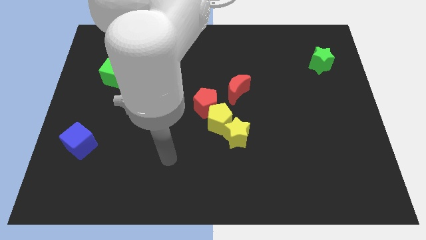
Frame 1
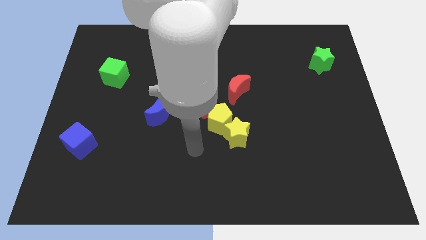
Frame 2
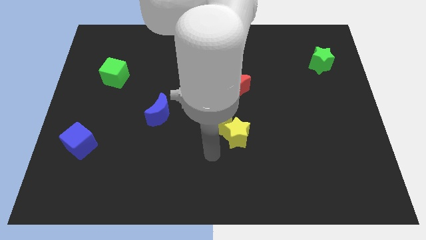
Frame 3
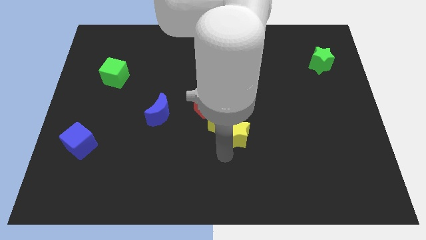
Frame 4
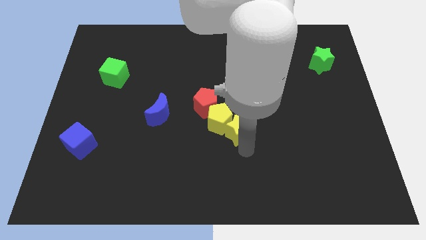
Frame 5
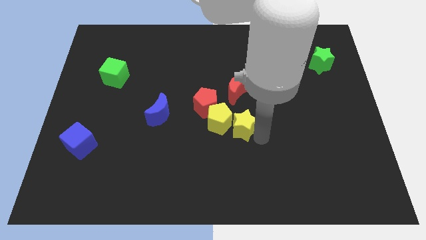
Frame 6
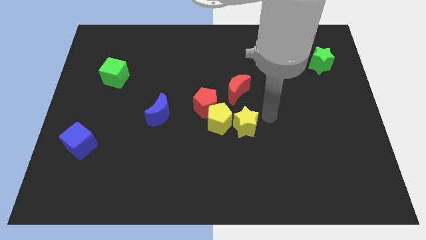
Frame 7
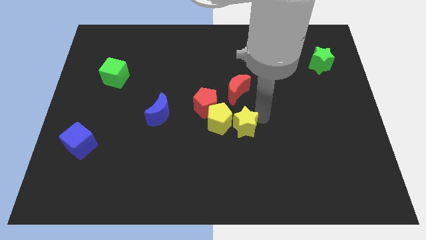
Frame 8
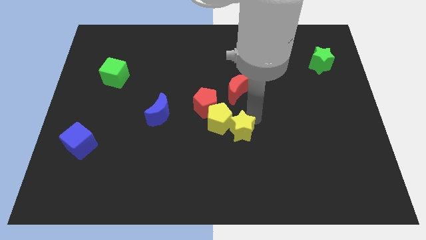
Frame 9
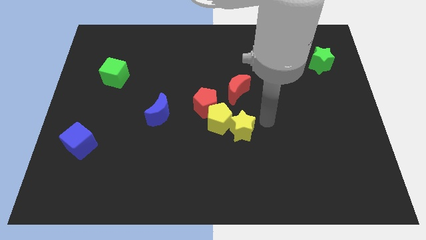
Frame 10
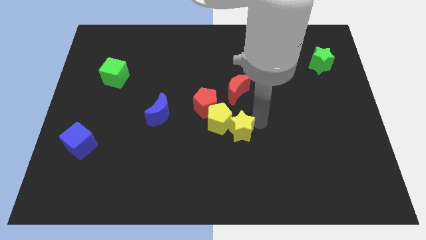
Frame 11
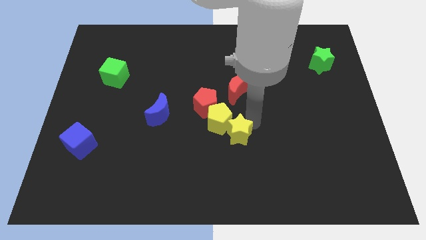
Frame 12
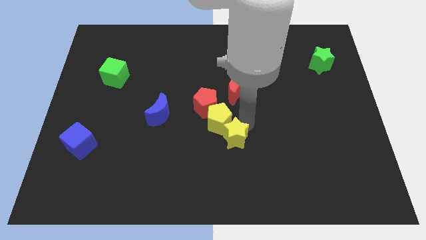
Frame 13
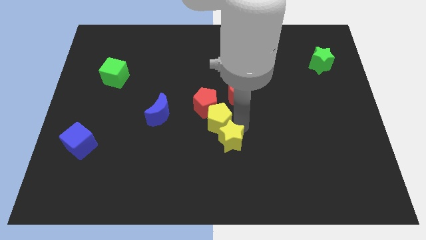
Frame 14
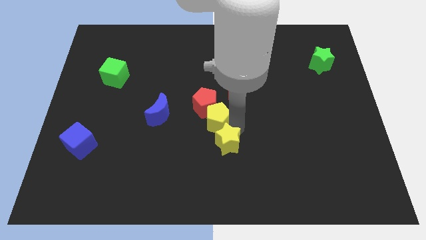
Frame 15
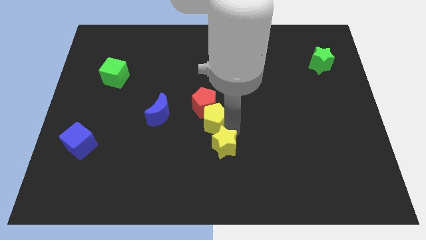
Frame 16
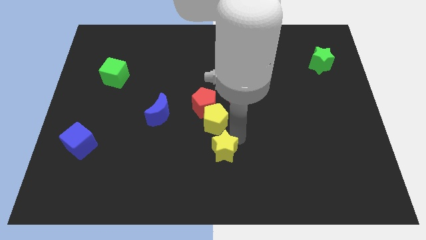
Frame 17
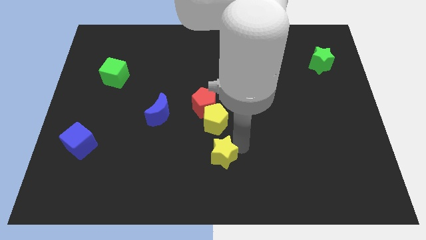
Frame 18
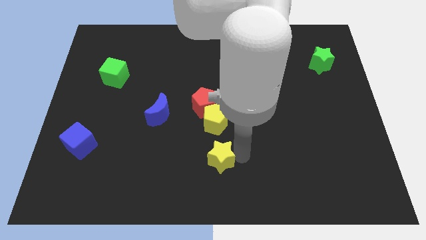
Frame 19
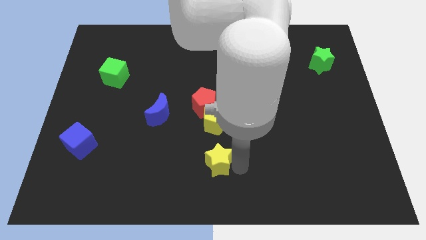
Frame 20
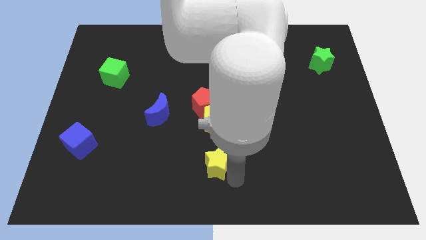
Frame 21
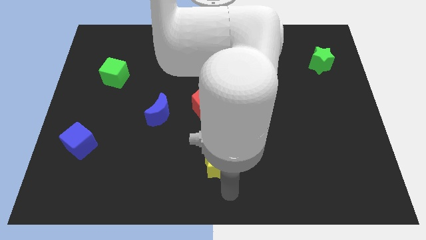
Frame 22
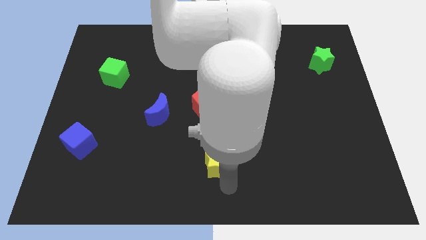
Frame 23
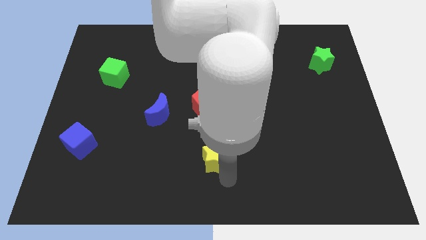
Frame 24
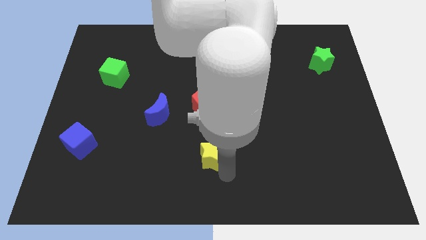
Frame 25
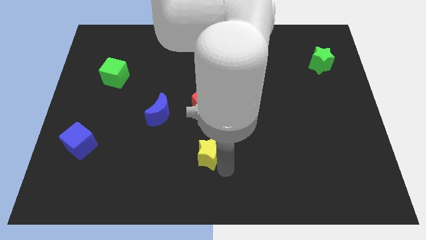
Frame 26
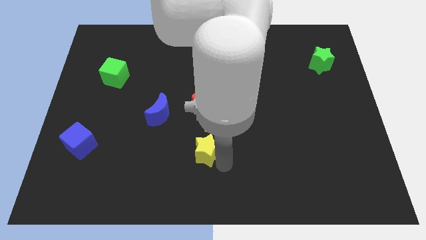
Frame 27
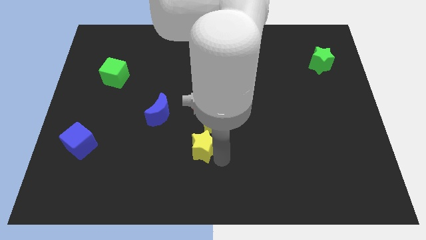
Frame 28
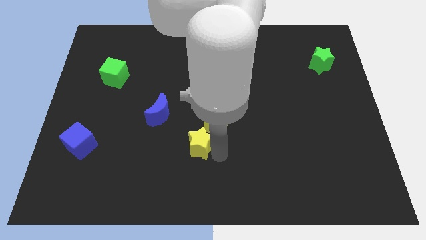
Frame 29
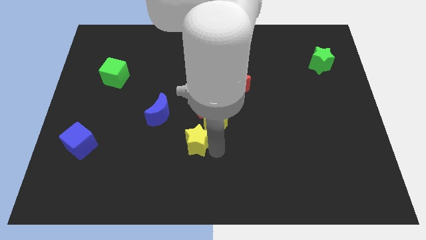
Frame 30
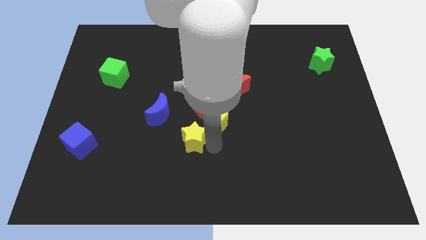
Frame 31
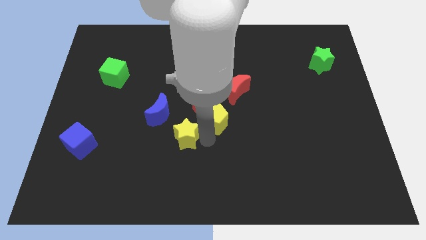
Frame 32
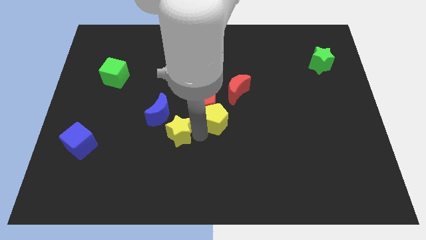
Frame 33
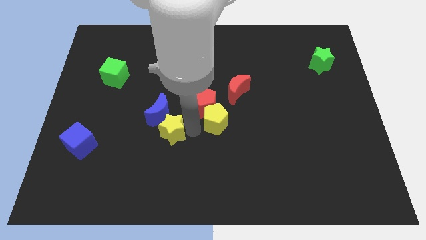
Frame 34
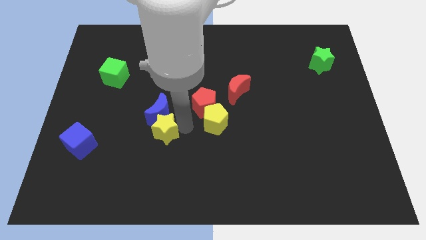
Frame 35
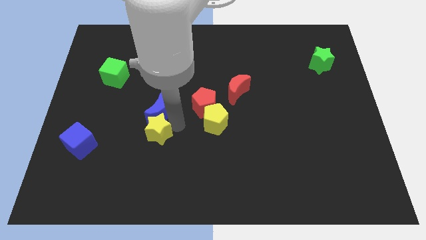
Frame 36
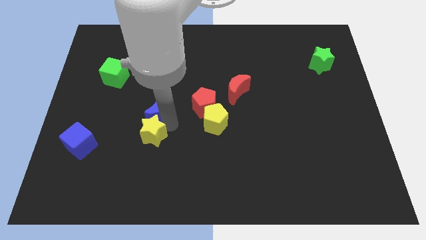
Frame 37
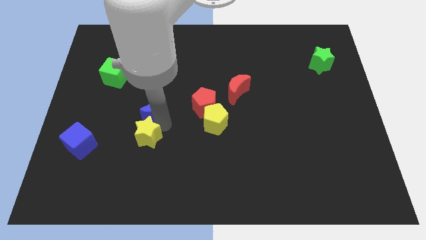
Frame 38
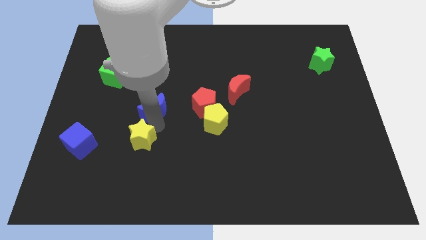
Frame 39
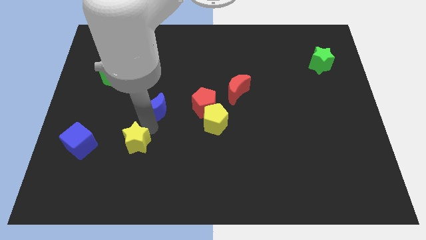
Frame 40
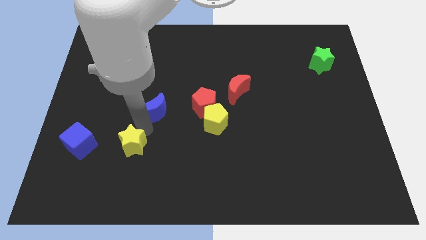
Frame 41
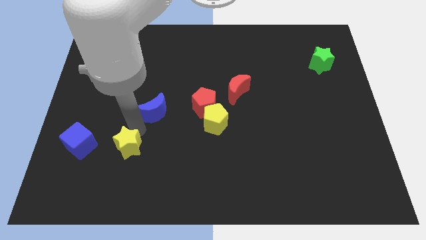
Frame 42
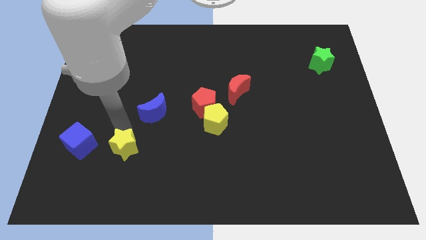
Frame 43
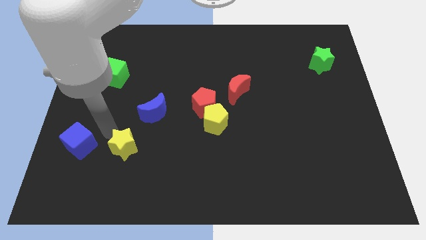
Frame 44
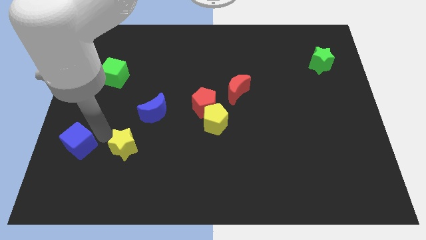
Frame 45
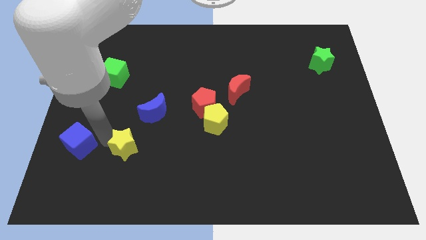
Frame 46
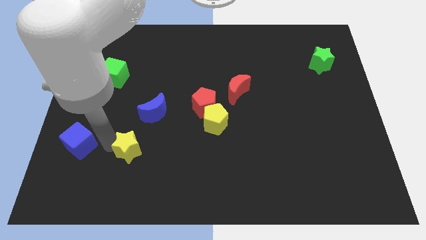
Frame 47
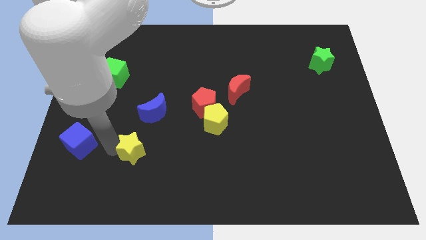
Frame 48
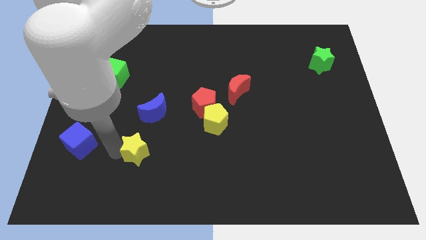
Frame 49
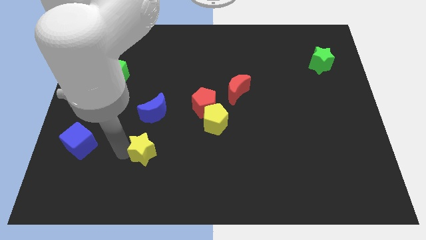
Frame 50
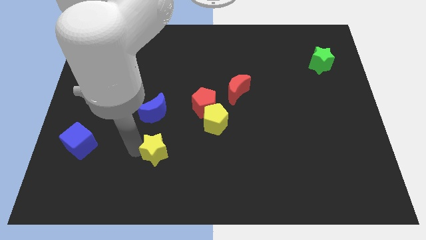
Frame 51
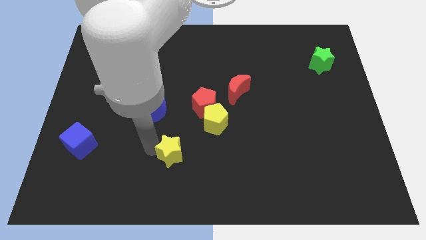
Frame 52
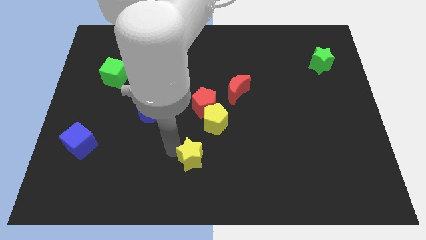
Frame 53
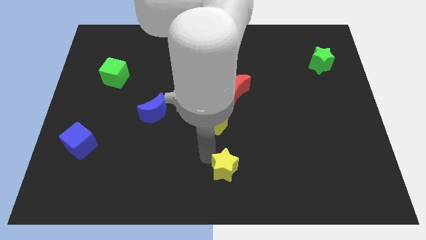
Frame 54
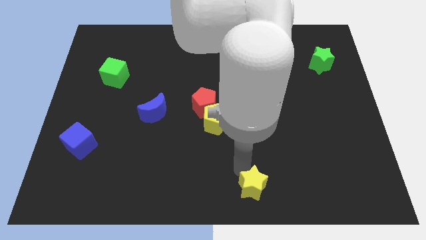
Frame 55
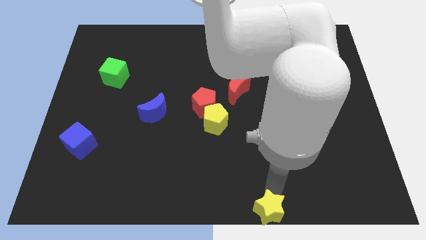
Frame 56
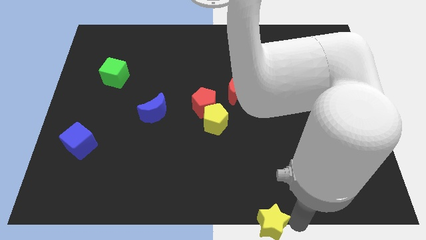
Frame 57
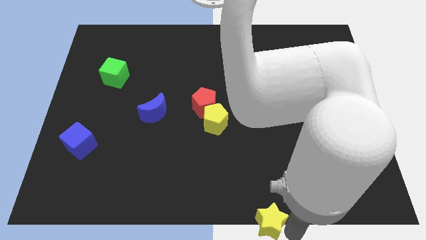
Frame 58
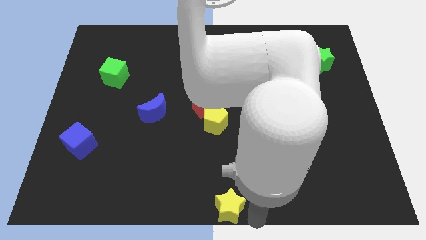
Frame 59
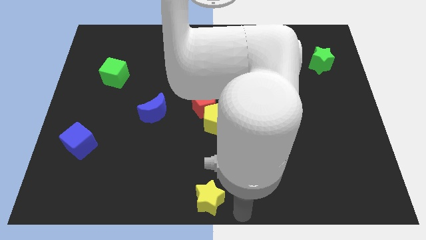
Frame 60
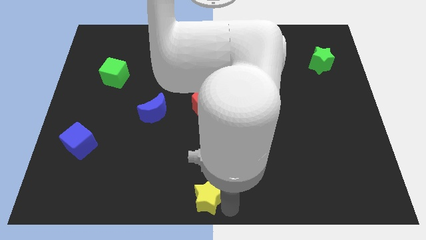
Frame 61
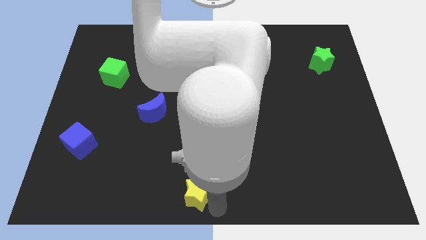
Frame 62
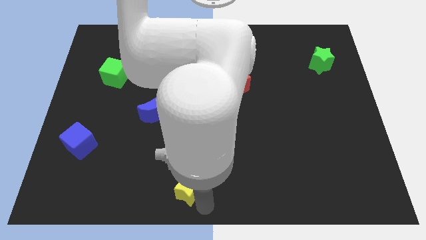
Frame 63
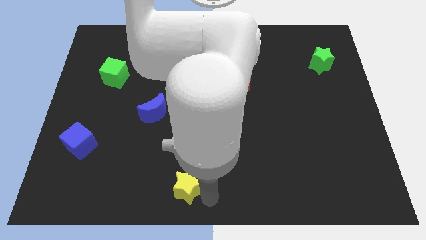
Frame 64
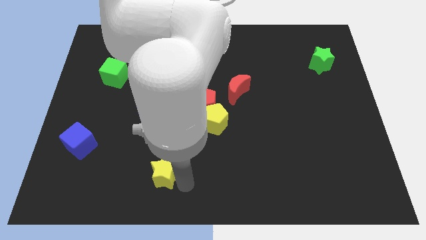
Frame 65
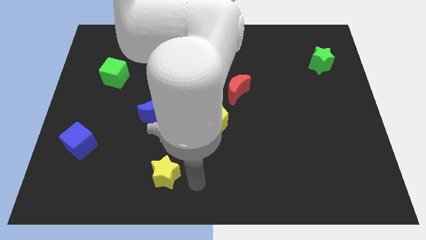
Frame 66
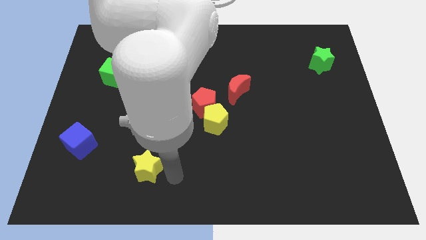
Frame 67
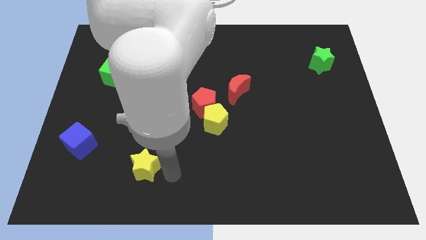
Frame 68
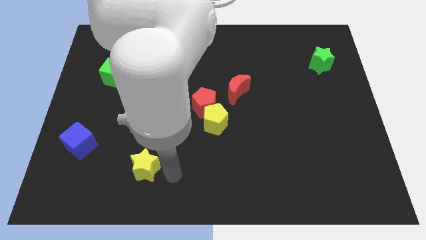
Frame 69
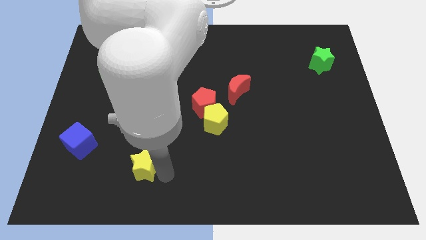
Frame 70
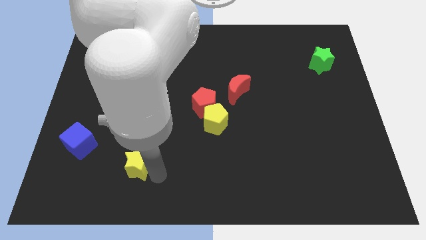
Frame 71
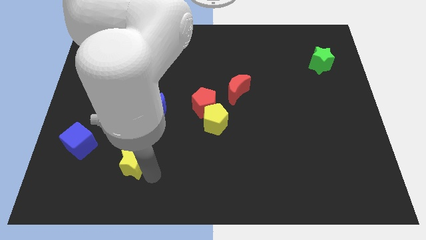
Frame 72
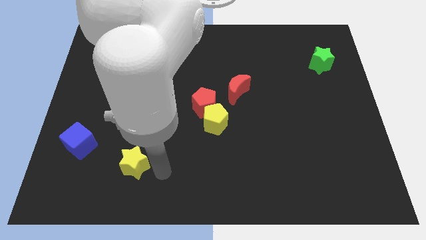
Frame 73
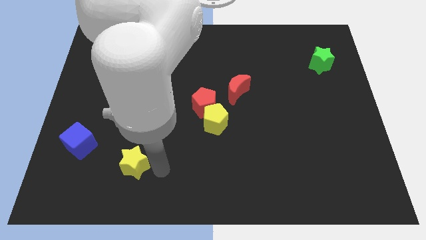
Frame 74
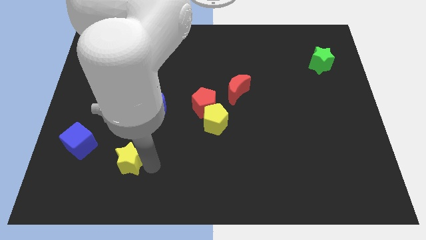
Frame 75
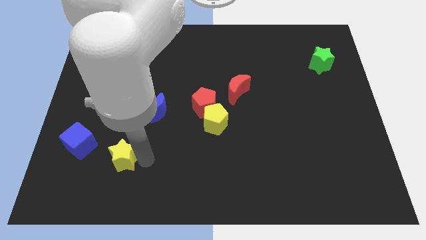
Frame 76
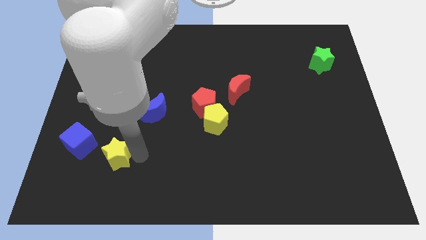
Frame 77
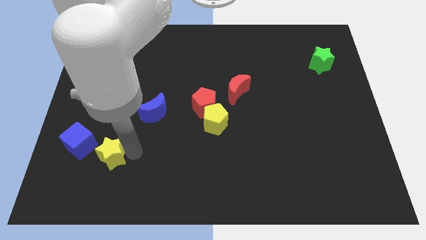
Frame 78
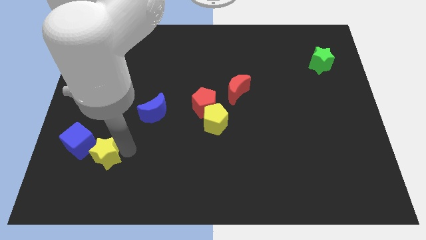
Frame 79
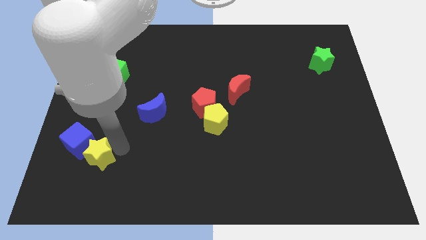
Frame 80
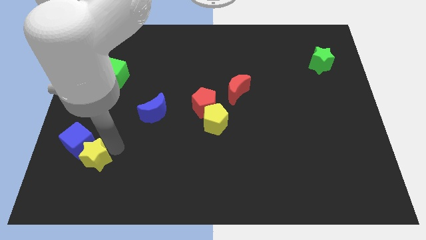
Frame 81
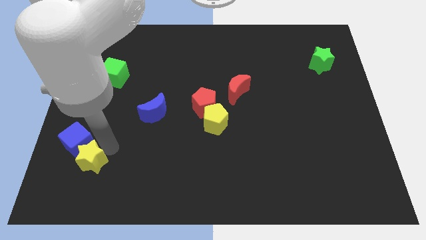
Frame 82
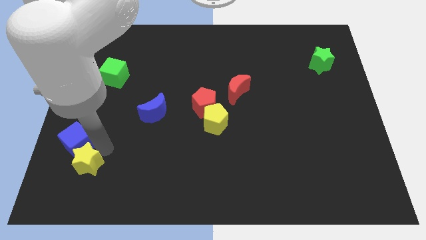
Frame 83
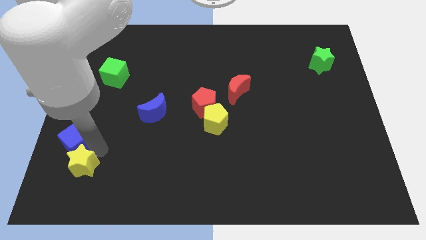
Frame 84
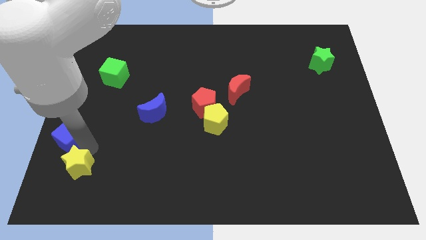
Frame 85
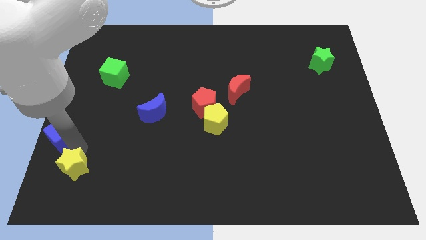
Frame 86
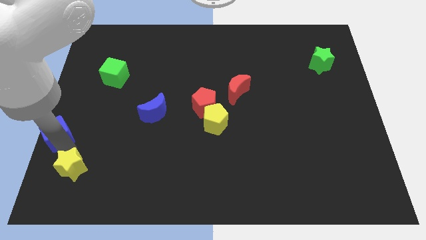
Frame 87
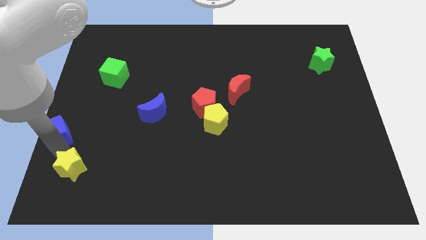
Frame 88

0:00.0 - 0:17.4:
put the yellow star to the bottom left
